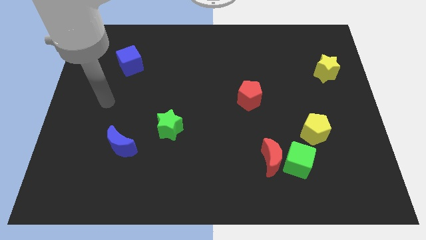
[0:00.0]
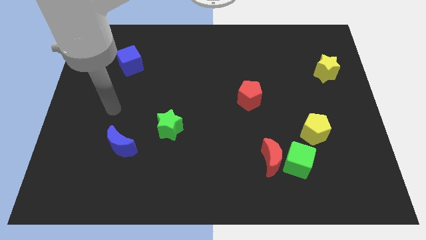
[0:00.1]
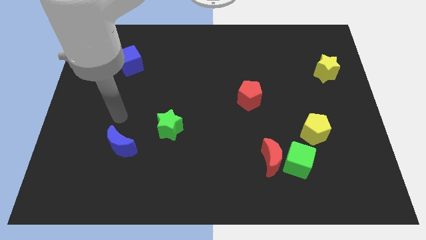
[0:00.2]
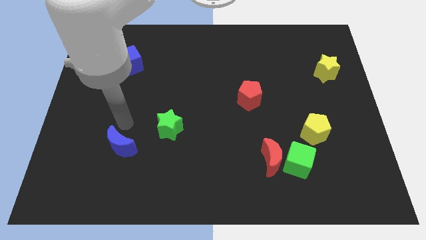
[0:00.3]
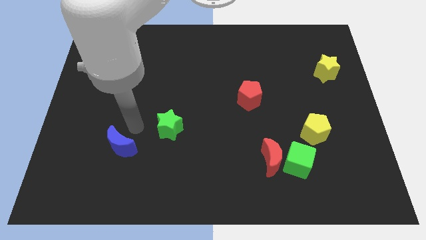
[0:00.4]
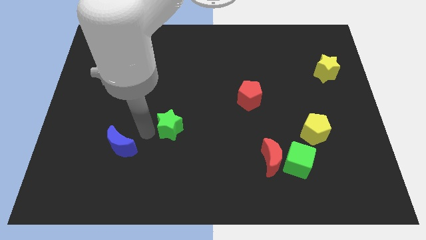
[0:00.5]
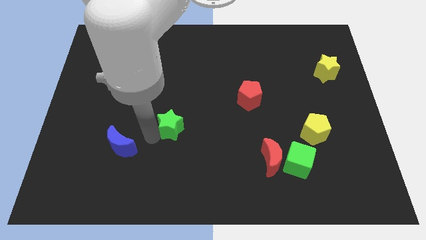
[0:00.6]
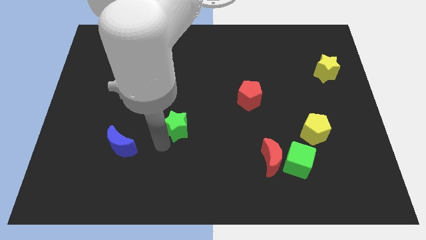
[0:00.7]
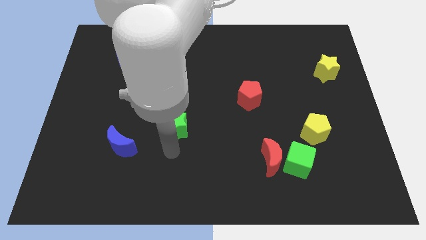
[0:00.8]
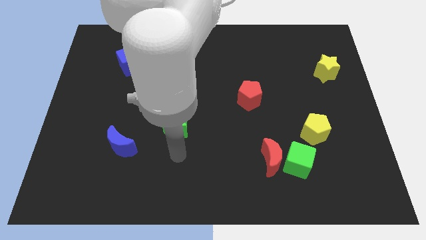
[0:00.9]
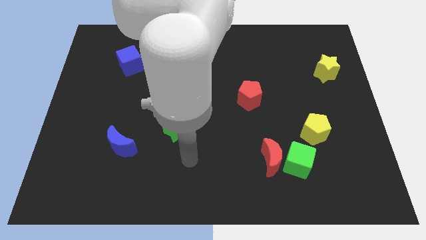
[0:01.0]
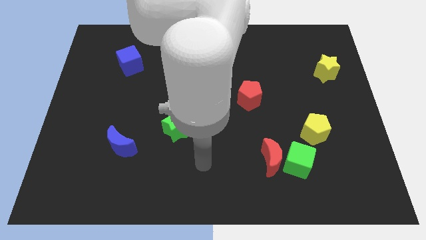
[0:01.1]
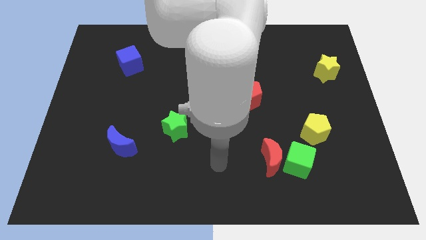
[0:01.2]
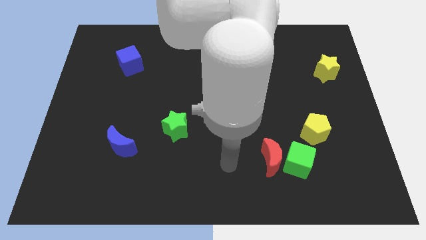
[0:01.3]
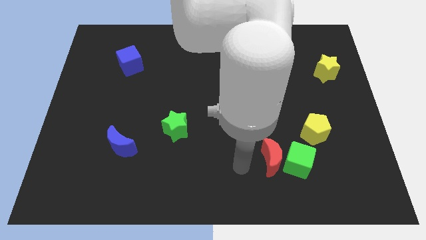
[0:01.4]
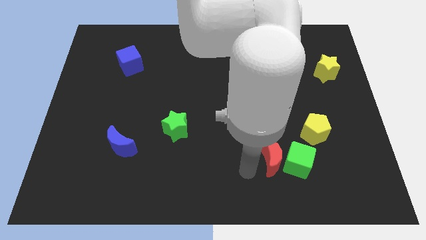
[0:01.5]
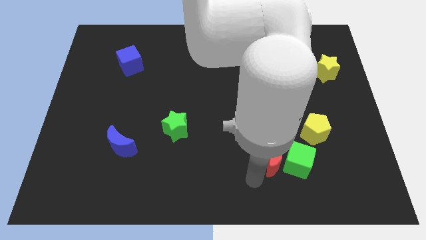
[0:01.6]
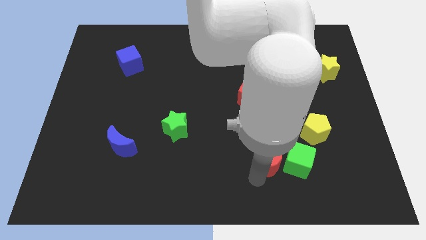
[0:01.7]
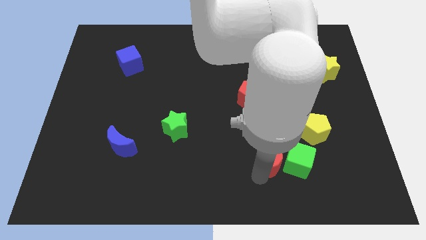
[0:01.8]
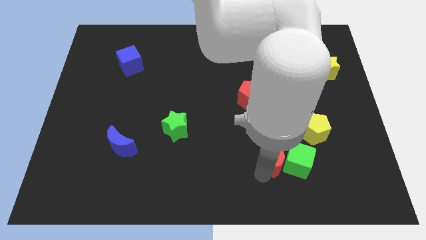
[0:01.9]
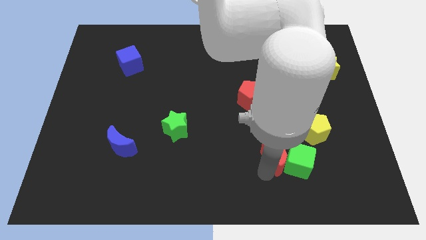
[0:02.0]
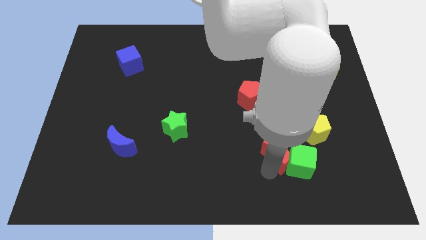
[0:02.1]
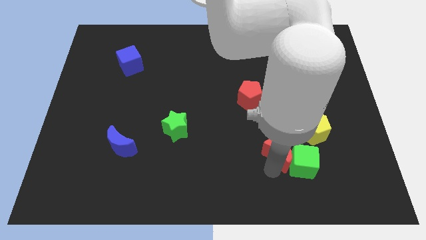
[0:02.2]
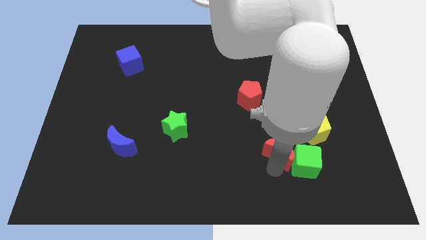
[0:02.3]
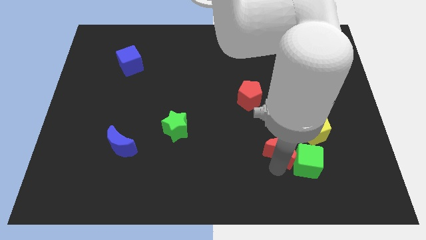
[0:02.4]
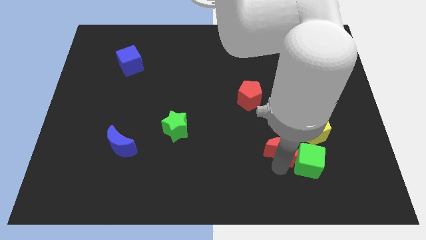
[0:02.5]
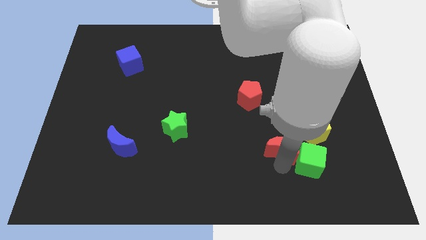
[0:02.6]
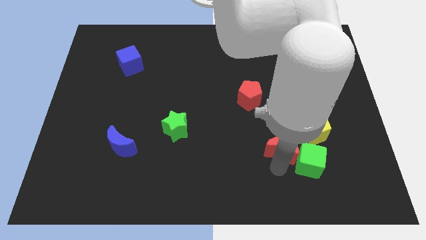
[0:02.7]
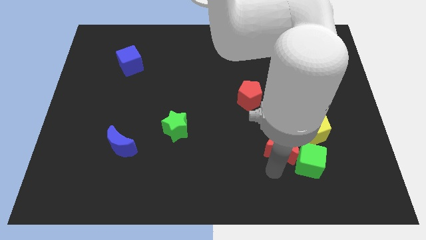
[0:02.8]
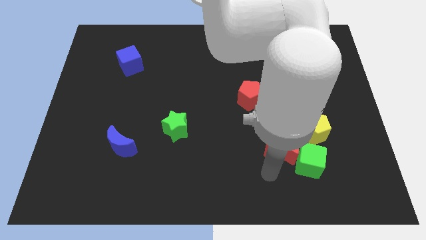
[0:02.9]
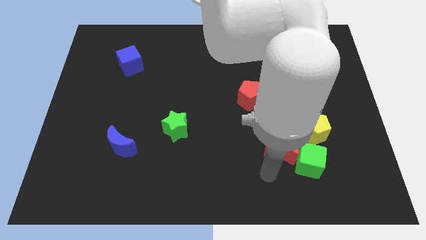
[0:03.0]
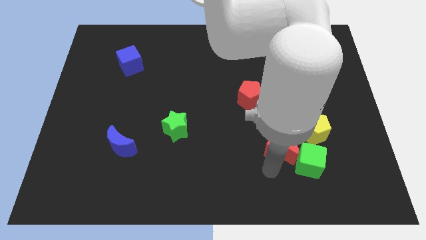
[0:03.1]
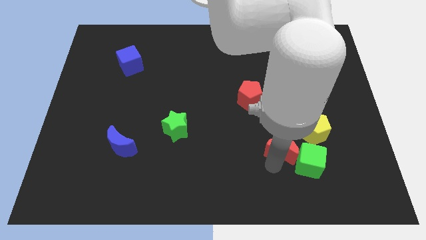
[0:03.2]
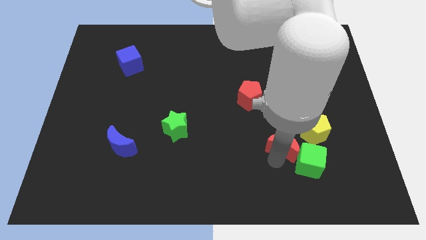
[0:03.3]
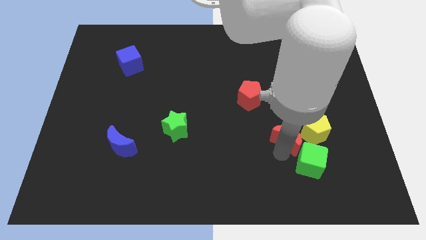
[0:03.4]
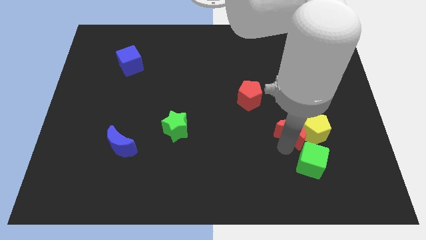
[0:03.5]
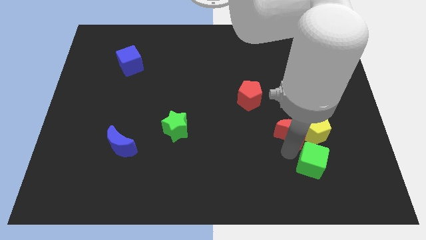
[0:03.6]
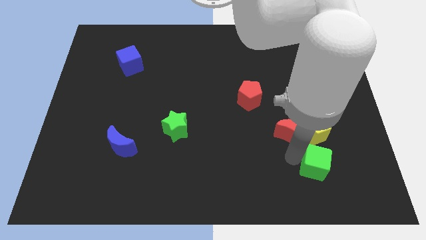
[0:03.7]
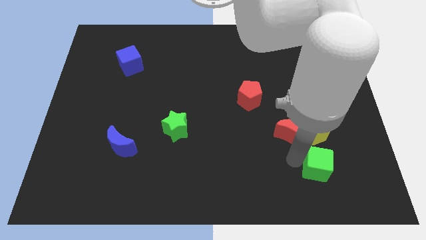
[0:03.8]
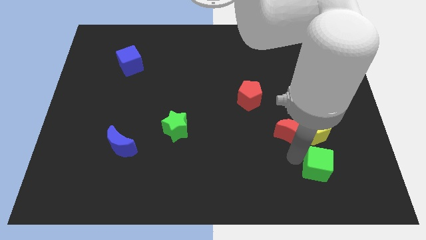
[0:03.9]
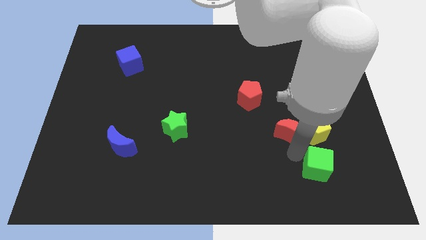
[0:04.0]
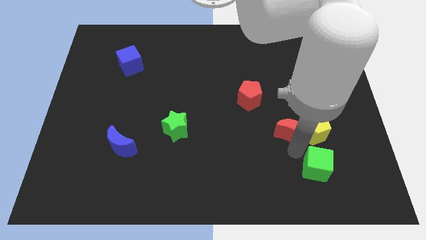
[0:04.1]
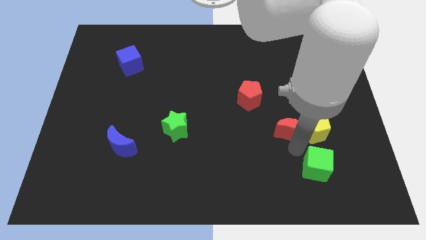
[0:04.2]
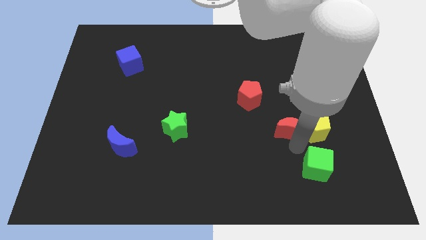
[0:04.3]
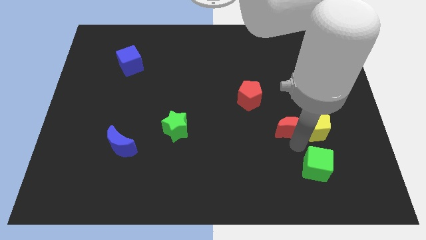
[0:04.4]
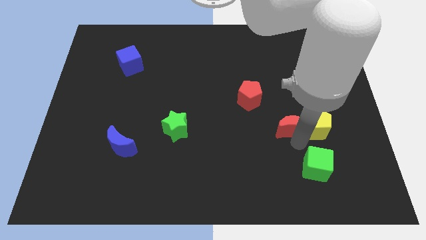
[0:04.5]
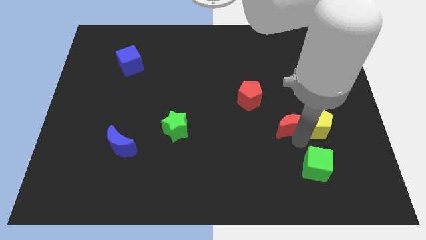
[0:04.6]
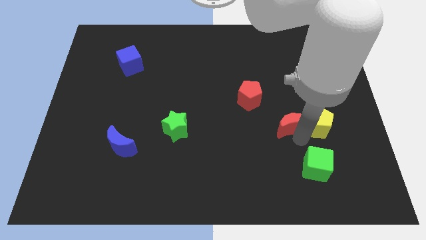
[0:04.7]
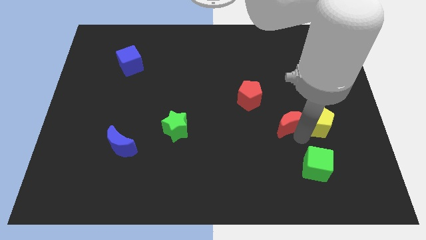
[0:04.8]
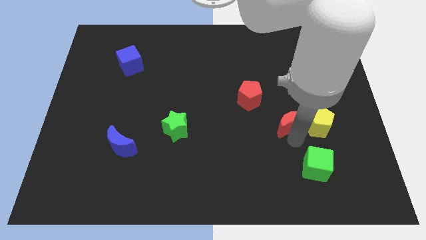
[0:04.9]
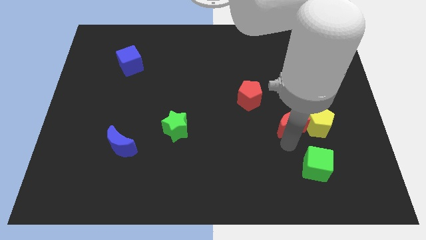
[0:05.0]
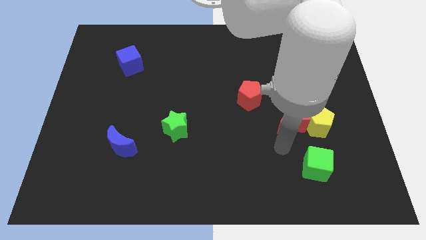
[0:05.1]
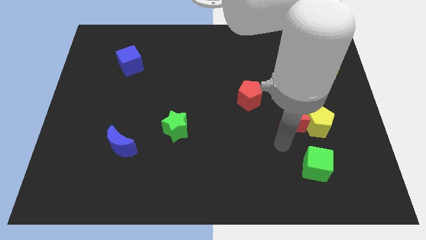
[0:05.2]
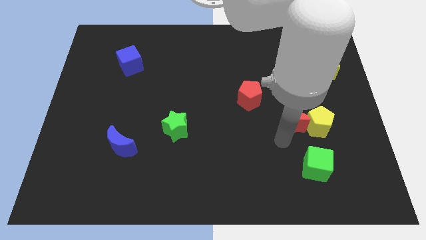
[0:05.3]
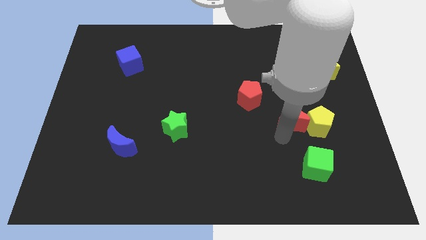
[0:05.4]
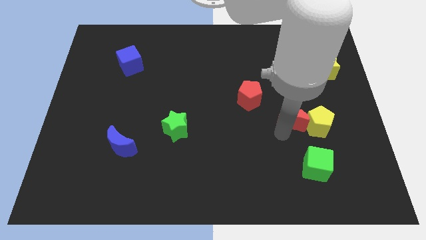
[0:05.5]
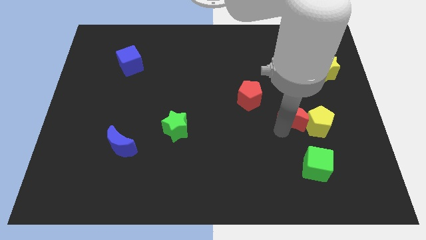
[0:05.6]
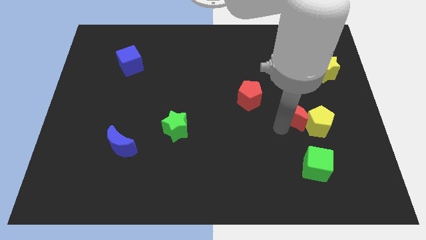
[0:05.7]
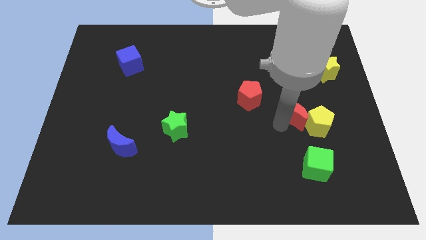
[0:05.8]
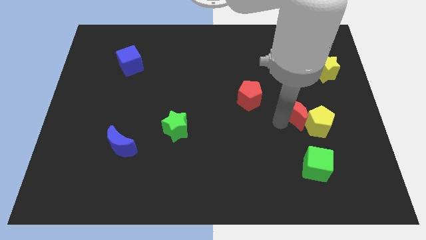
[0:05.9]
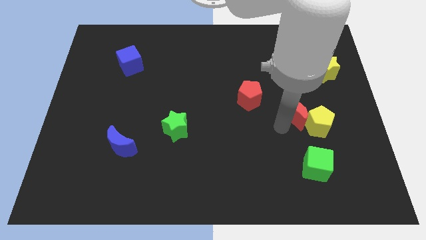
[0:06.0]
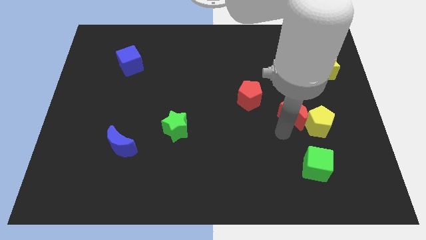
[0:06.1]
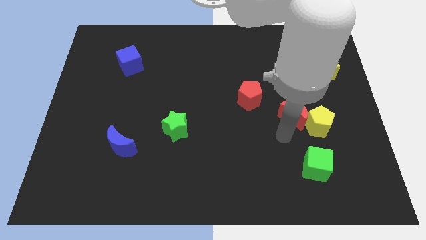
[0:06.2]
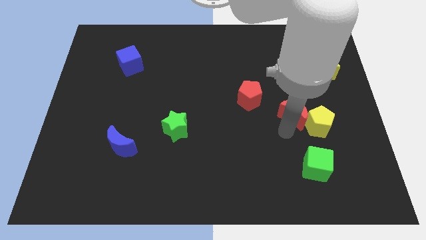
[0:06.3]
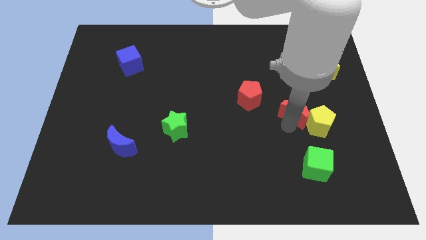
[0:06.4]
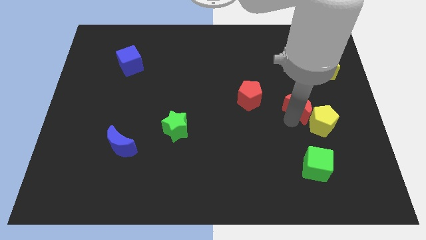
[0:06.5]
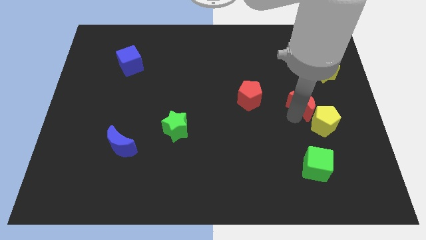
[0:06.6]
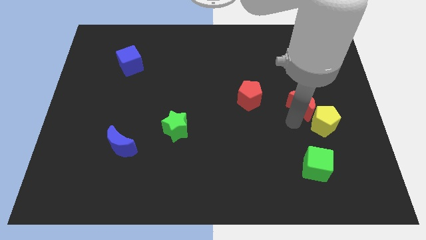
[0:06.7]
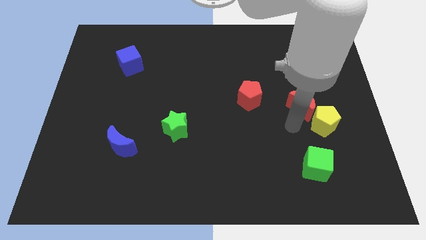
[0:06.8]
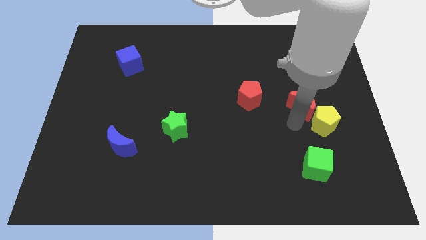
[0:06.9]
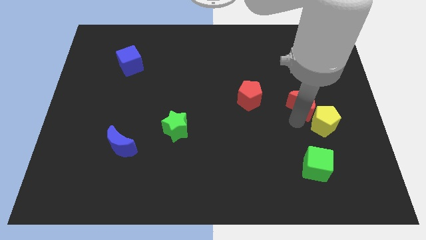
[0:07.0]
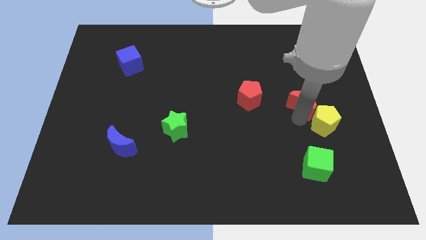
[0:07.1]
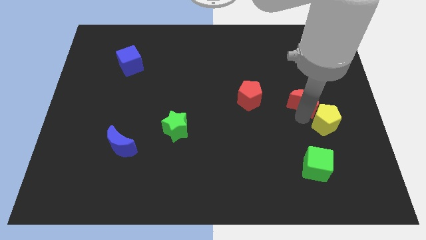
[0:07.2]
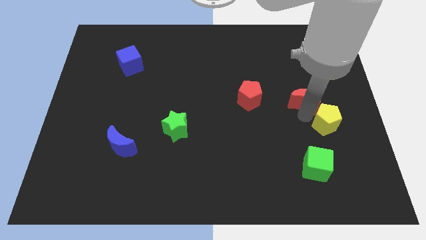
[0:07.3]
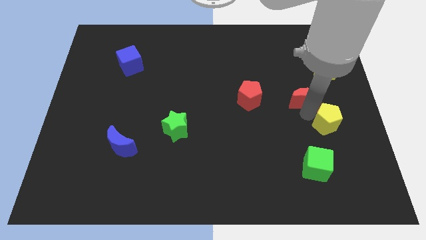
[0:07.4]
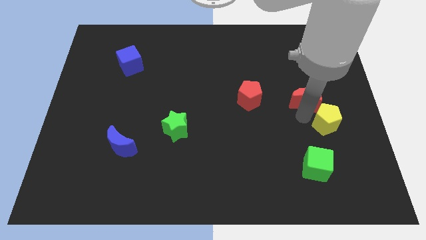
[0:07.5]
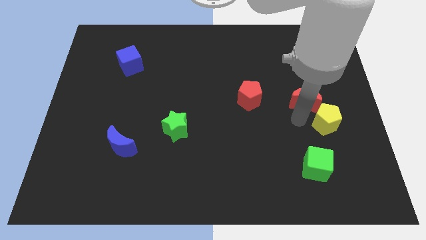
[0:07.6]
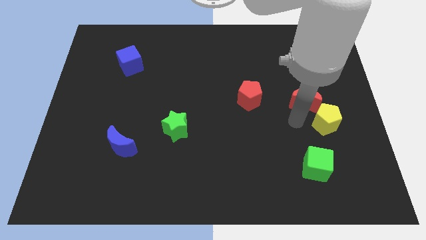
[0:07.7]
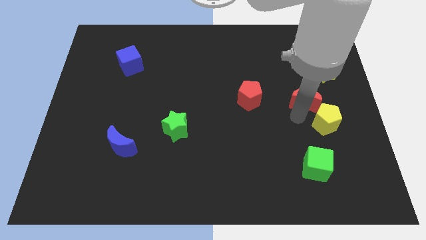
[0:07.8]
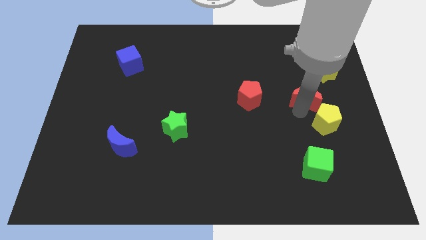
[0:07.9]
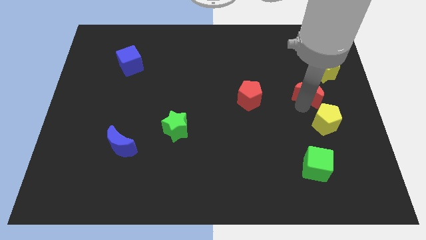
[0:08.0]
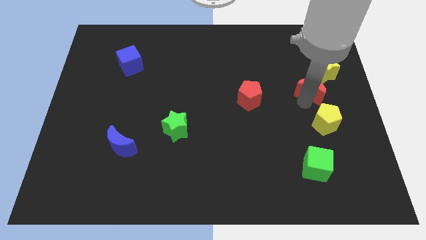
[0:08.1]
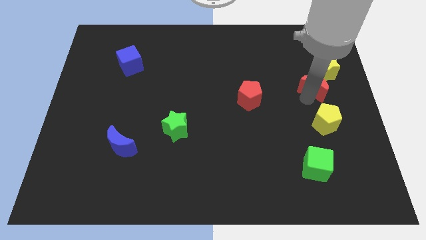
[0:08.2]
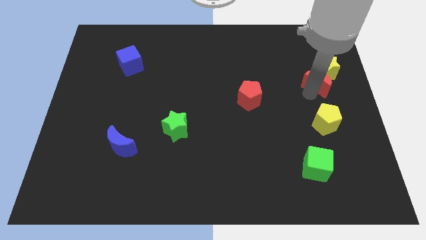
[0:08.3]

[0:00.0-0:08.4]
move the red moon close to the yellow star
